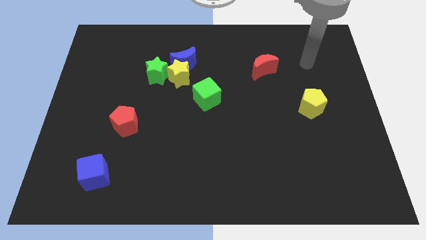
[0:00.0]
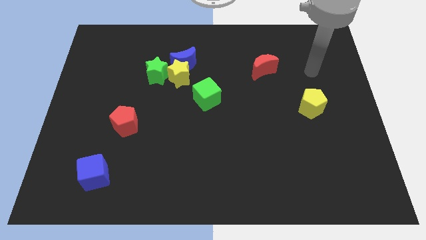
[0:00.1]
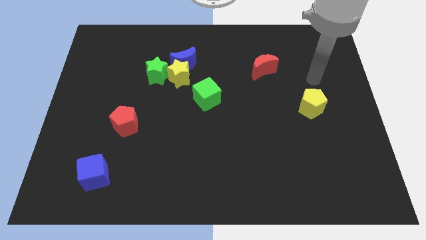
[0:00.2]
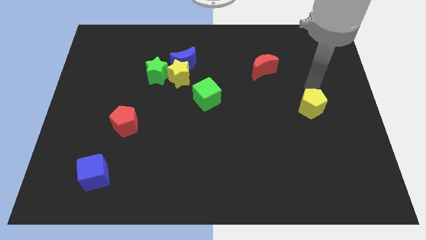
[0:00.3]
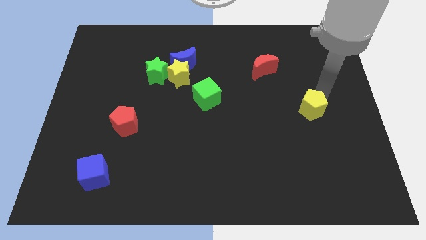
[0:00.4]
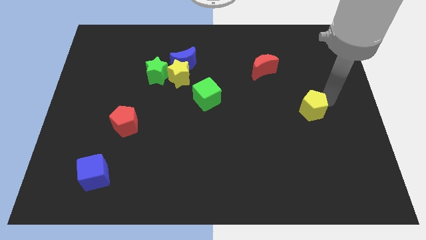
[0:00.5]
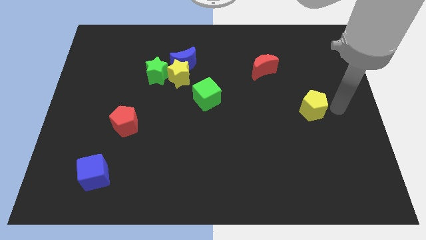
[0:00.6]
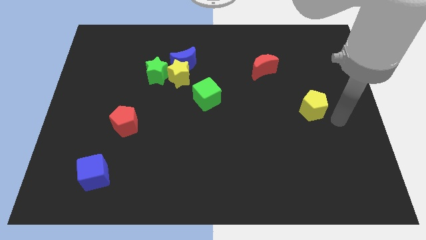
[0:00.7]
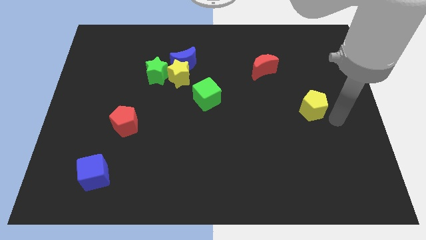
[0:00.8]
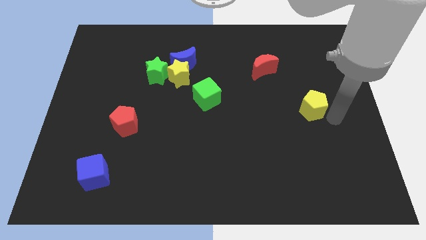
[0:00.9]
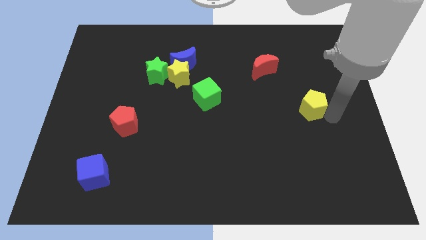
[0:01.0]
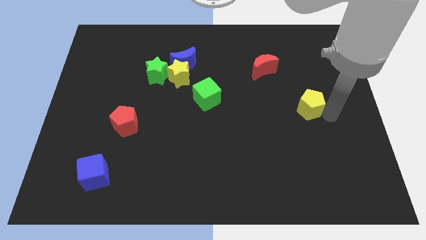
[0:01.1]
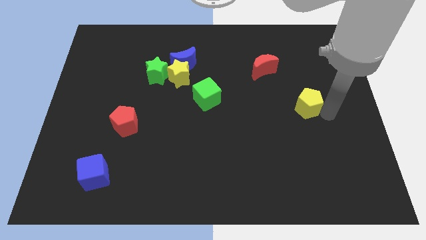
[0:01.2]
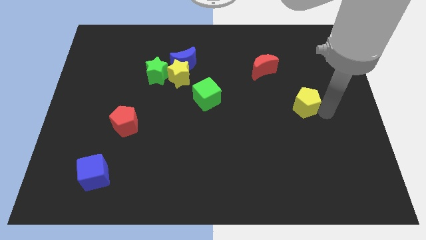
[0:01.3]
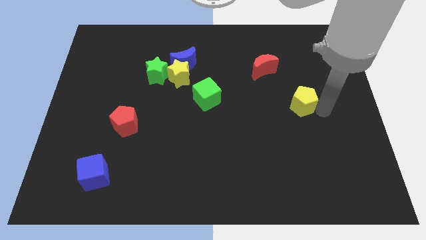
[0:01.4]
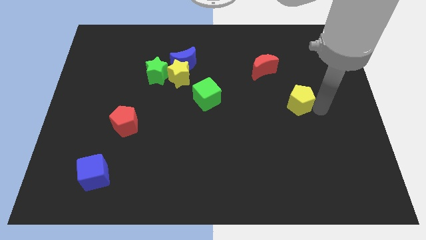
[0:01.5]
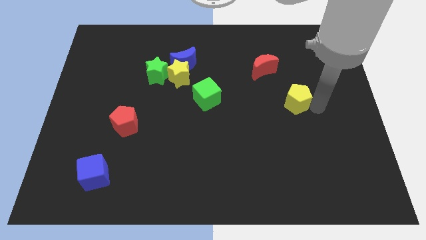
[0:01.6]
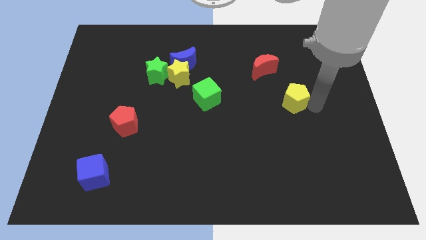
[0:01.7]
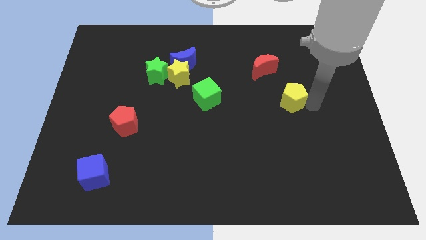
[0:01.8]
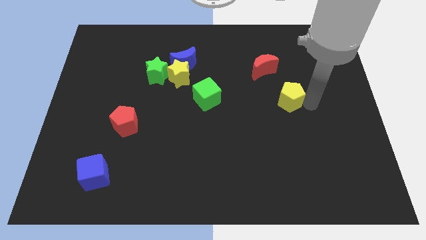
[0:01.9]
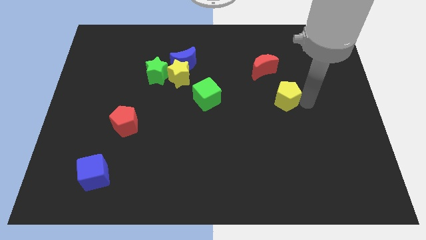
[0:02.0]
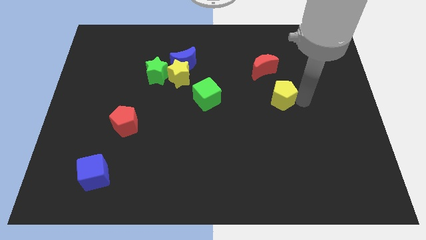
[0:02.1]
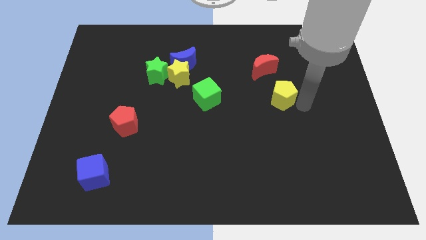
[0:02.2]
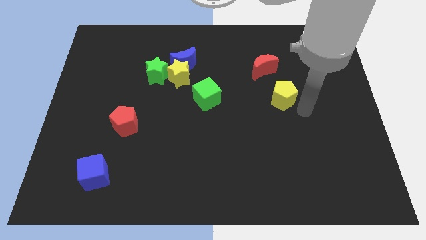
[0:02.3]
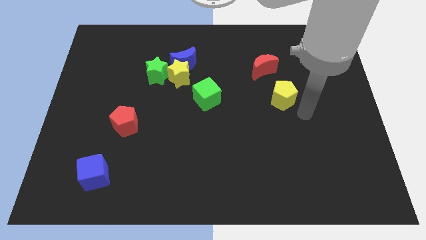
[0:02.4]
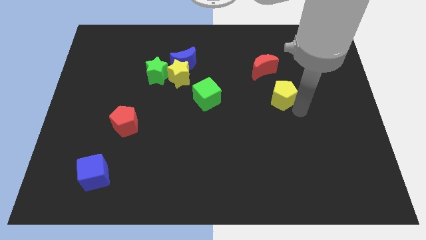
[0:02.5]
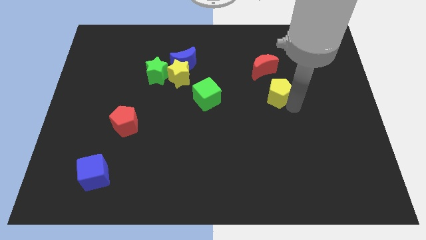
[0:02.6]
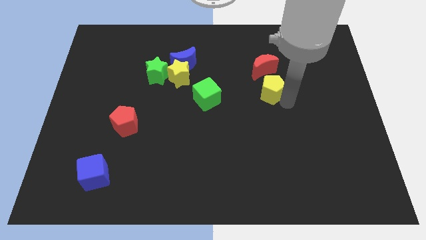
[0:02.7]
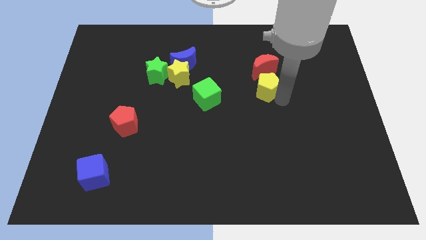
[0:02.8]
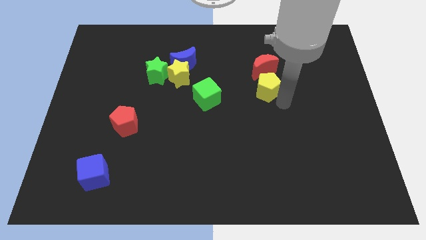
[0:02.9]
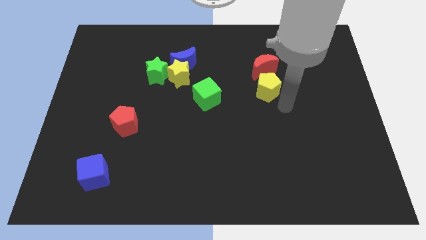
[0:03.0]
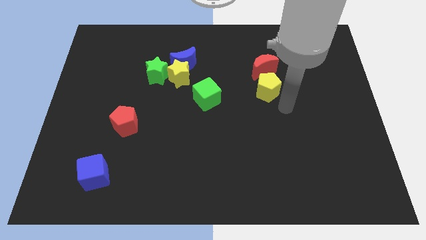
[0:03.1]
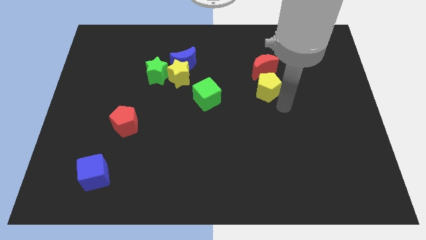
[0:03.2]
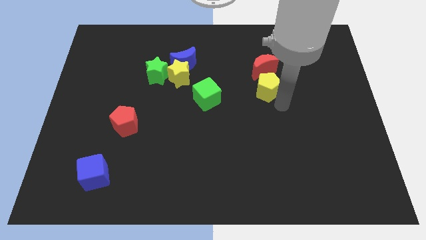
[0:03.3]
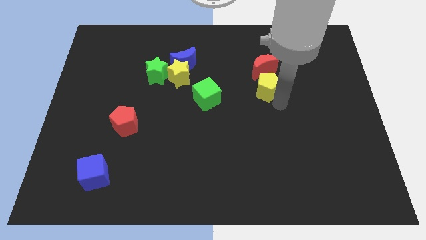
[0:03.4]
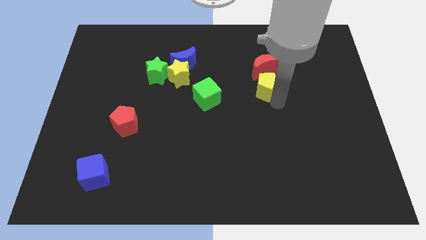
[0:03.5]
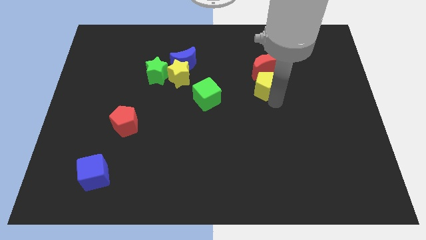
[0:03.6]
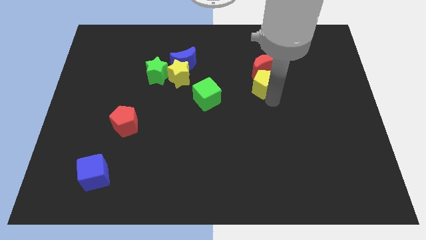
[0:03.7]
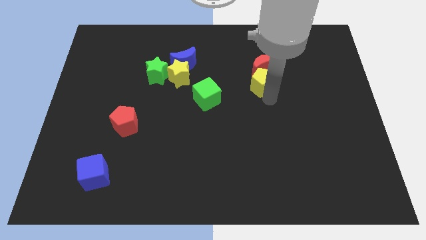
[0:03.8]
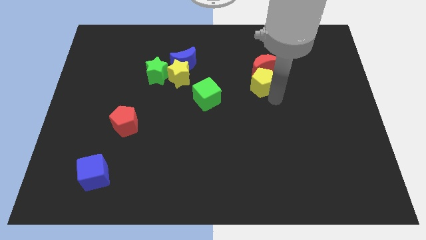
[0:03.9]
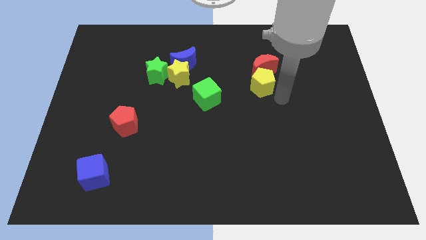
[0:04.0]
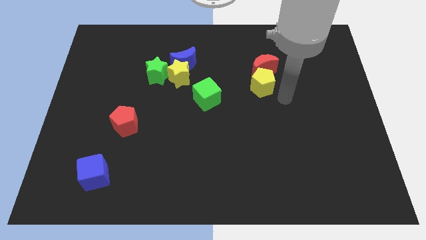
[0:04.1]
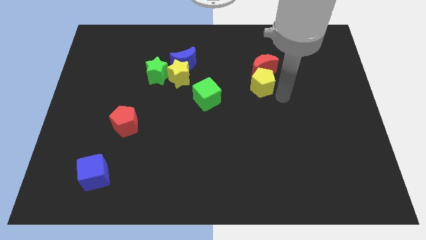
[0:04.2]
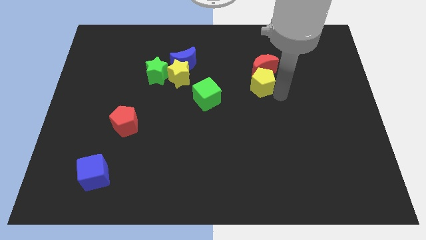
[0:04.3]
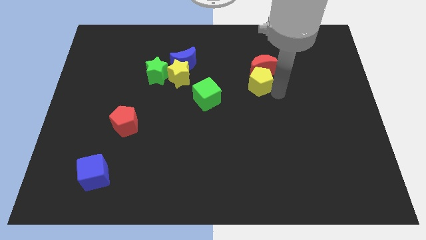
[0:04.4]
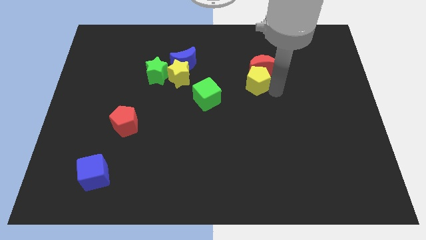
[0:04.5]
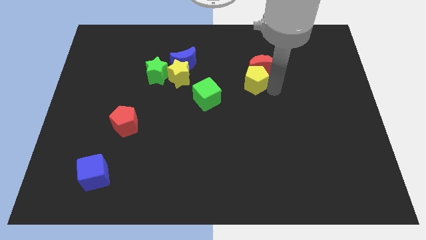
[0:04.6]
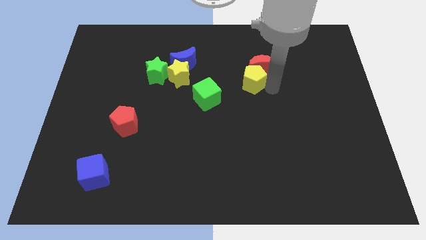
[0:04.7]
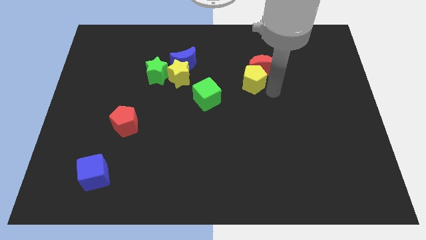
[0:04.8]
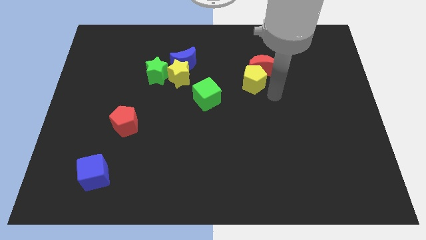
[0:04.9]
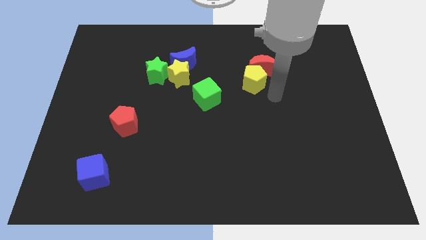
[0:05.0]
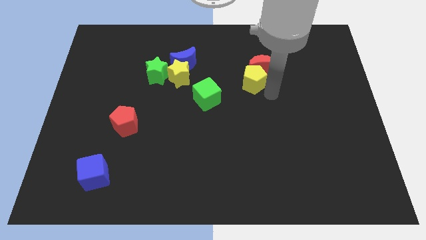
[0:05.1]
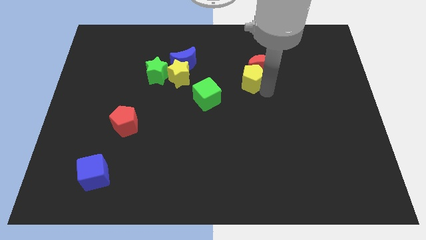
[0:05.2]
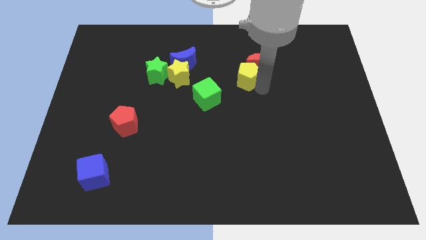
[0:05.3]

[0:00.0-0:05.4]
push the yellow pentagon to the left side of the red moon

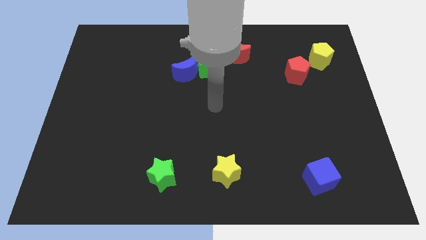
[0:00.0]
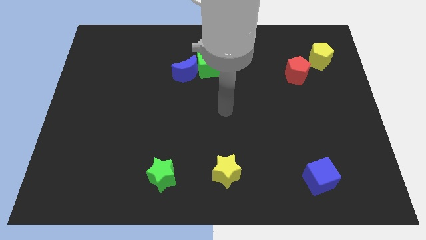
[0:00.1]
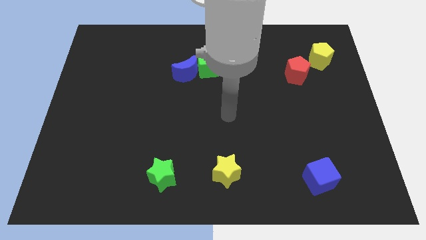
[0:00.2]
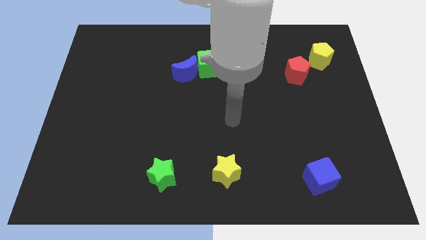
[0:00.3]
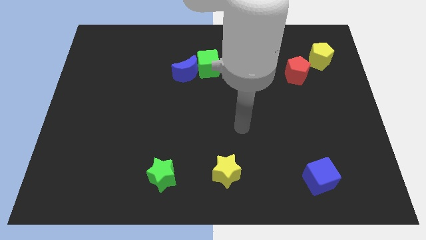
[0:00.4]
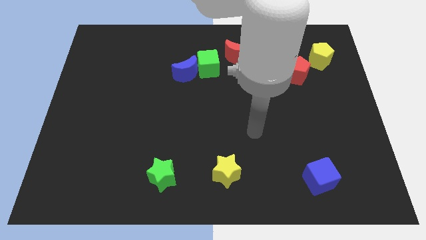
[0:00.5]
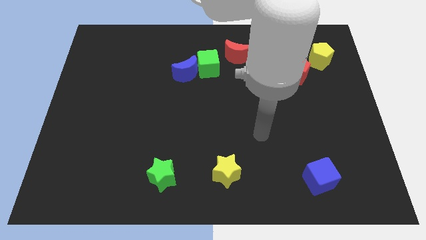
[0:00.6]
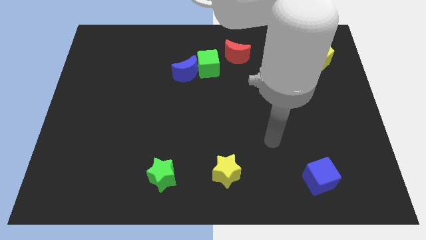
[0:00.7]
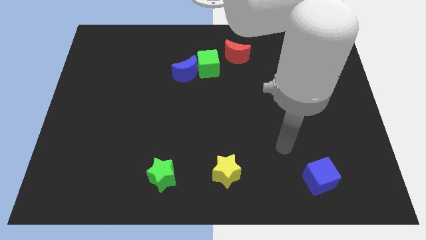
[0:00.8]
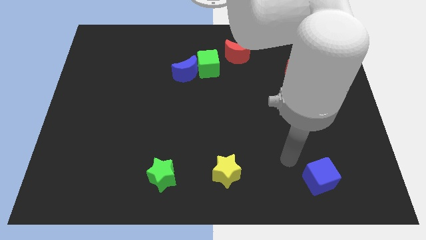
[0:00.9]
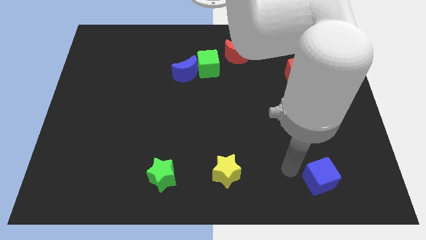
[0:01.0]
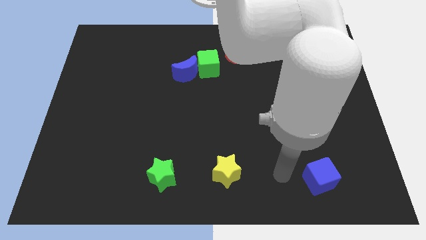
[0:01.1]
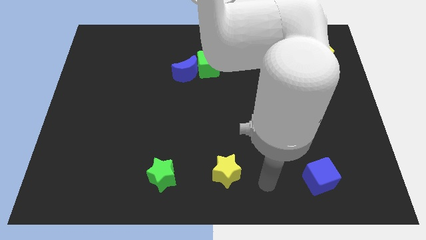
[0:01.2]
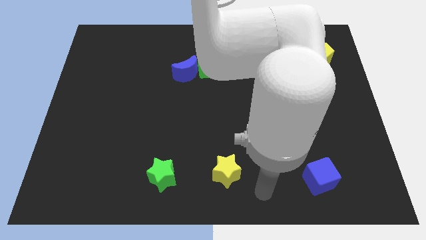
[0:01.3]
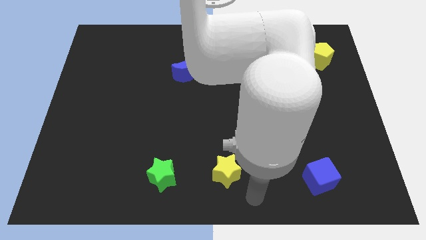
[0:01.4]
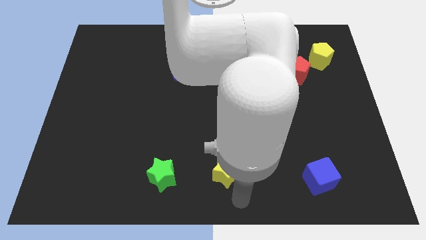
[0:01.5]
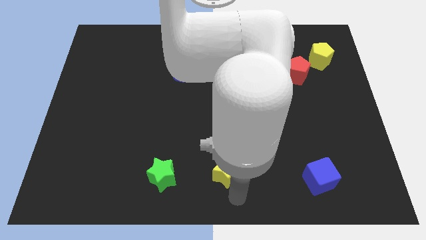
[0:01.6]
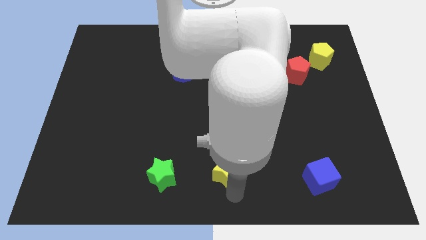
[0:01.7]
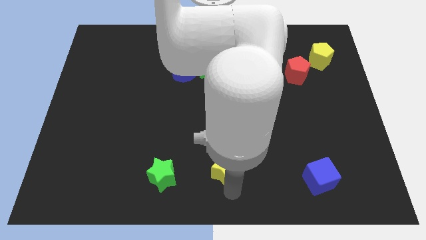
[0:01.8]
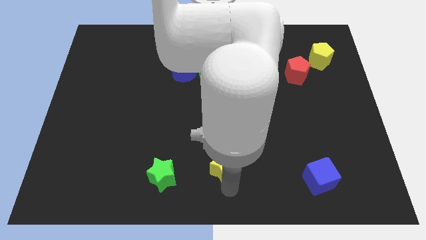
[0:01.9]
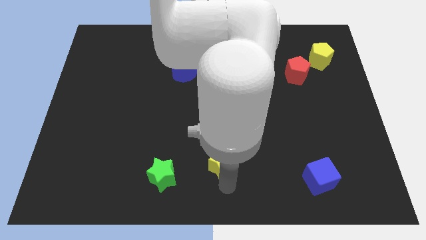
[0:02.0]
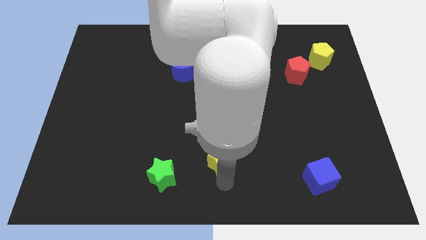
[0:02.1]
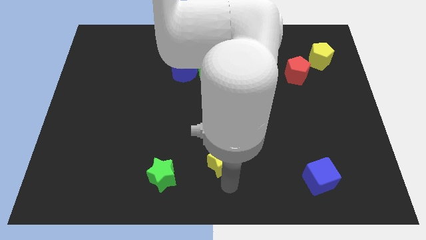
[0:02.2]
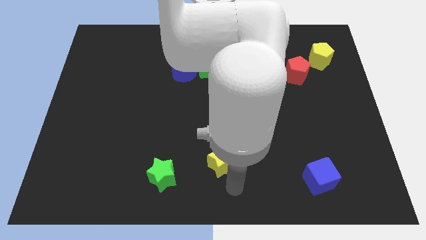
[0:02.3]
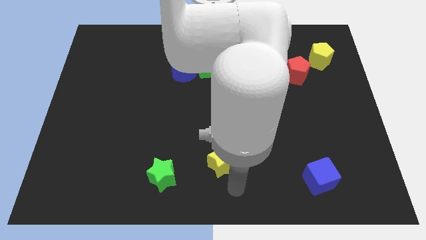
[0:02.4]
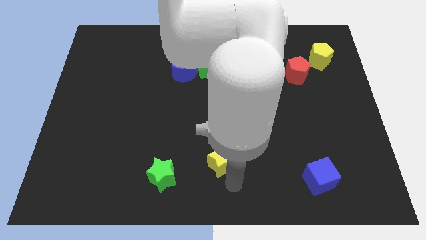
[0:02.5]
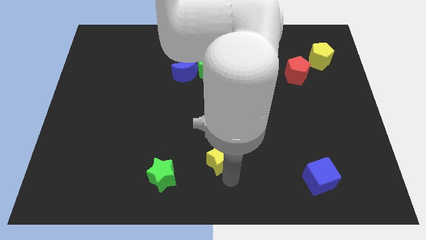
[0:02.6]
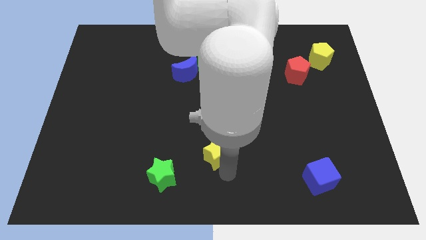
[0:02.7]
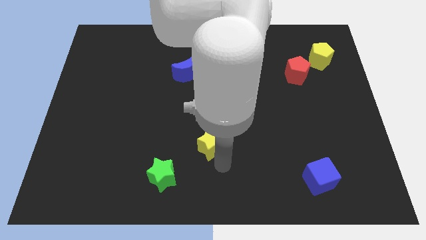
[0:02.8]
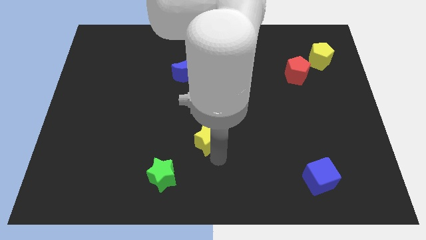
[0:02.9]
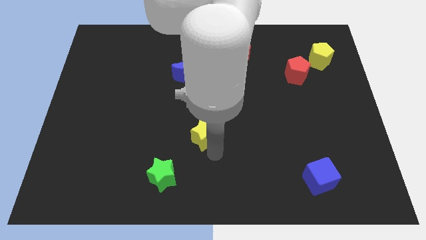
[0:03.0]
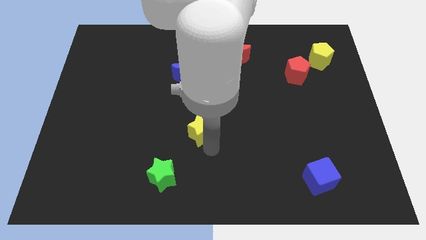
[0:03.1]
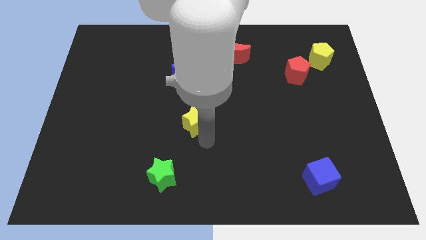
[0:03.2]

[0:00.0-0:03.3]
slide the yellow star below the blue moon
